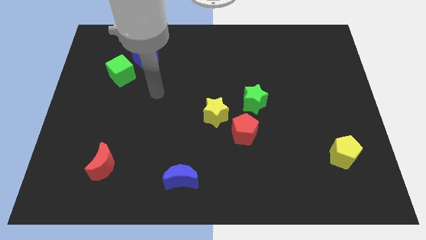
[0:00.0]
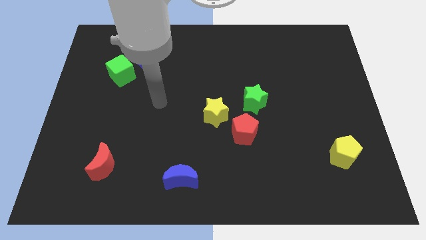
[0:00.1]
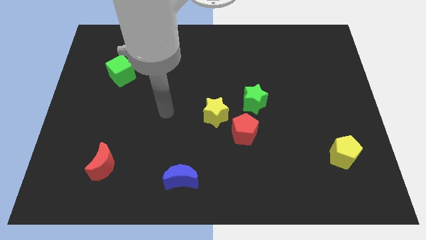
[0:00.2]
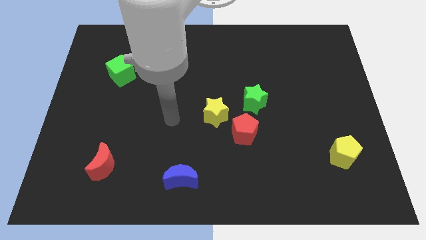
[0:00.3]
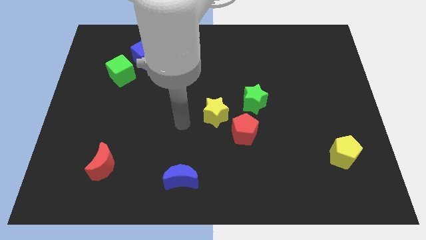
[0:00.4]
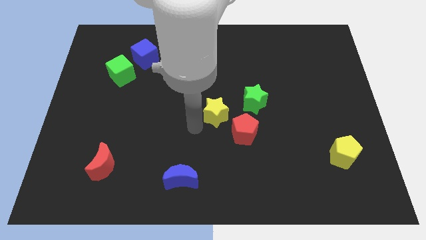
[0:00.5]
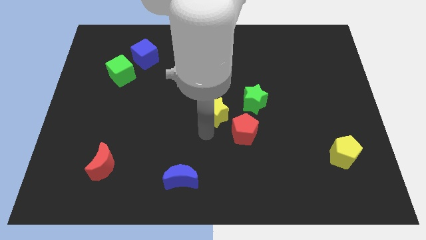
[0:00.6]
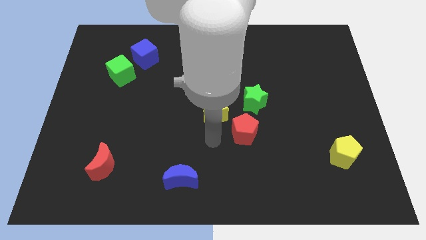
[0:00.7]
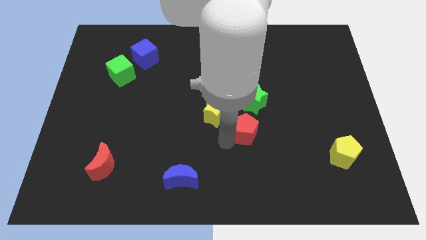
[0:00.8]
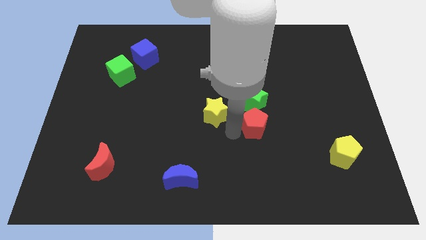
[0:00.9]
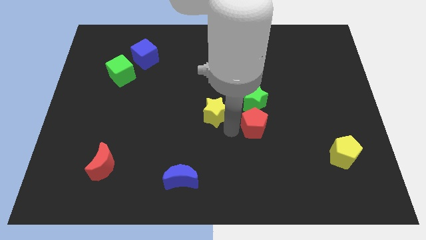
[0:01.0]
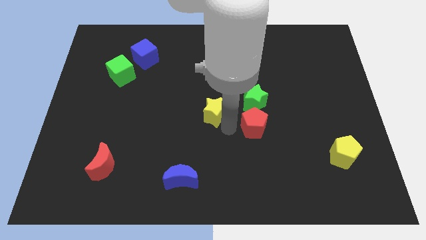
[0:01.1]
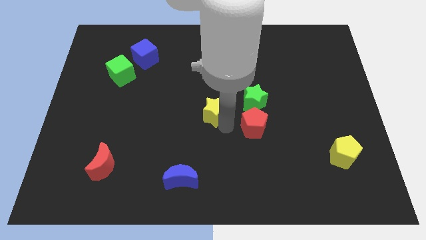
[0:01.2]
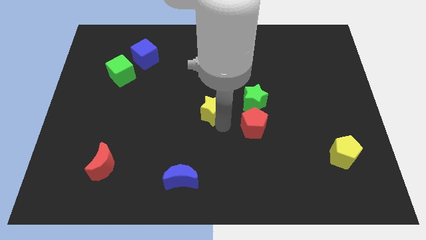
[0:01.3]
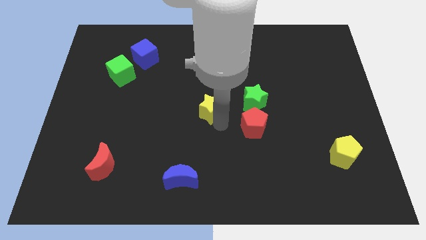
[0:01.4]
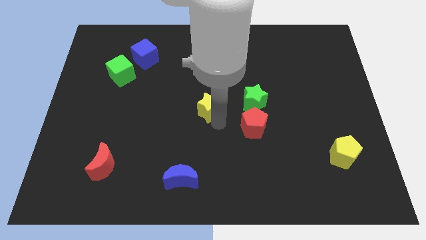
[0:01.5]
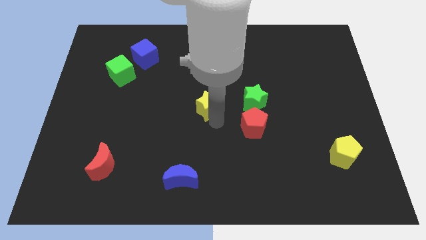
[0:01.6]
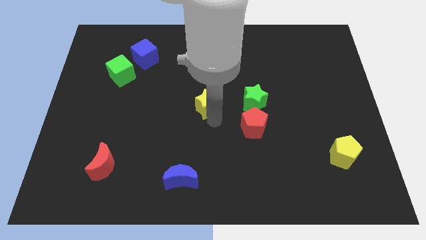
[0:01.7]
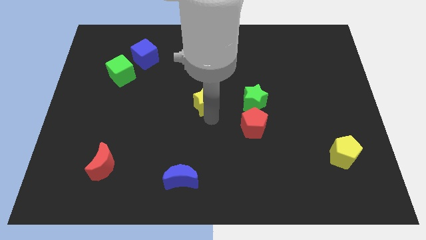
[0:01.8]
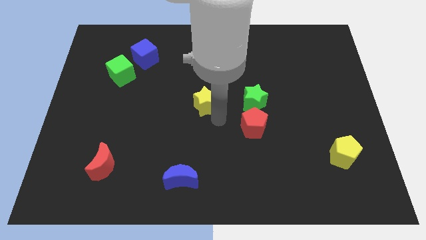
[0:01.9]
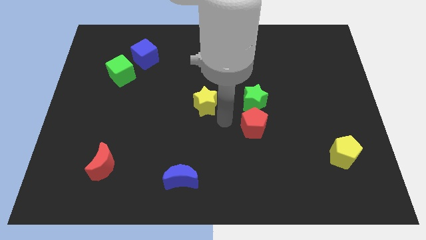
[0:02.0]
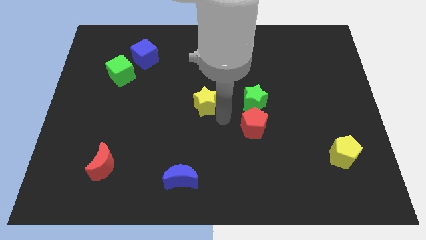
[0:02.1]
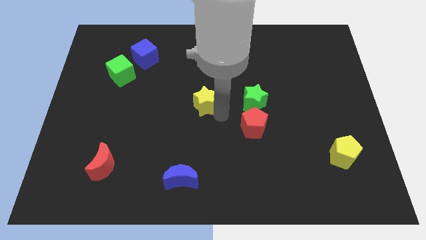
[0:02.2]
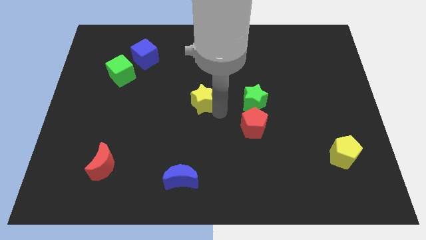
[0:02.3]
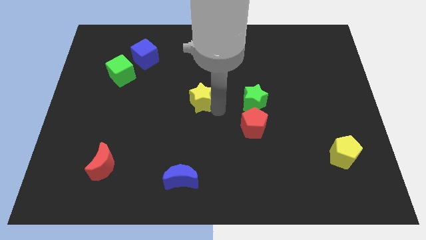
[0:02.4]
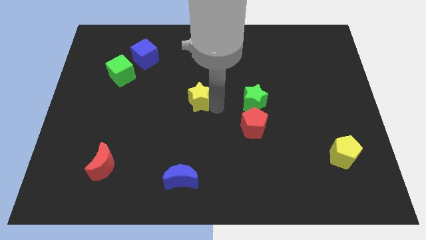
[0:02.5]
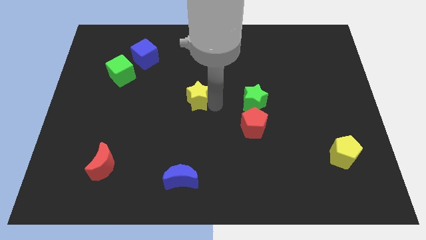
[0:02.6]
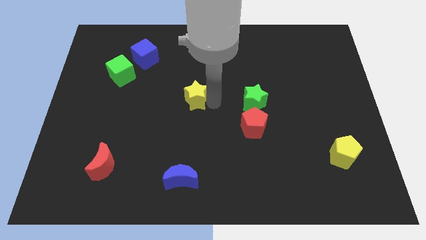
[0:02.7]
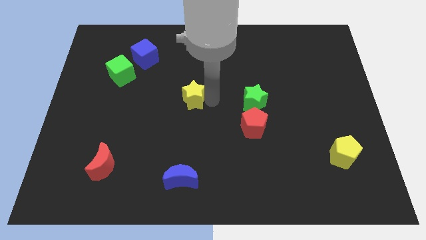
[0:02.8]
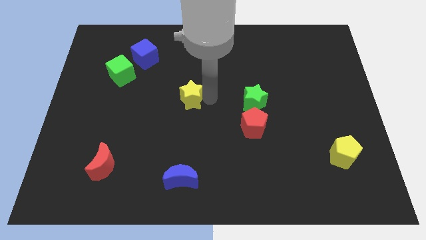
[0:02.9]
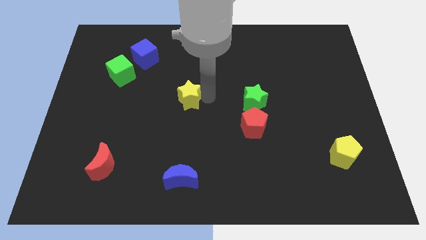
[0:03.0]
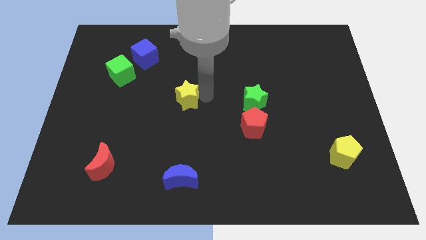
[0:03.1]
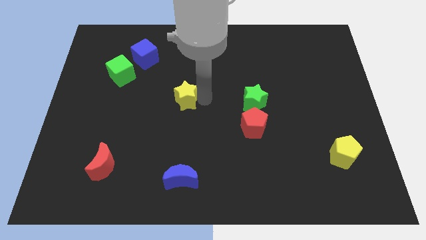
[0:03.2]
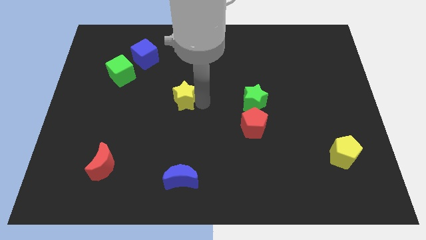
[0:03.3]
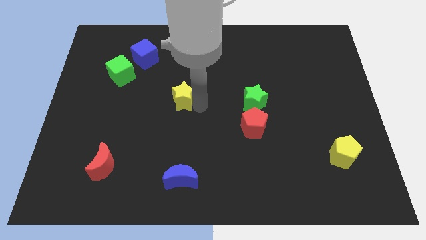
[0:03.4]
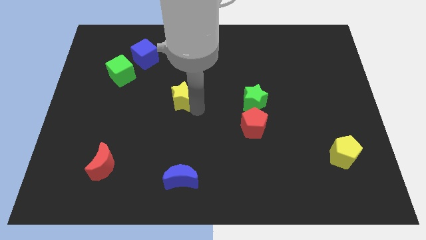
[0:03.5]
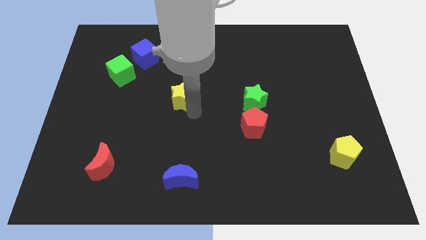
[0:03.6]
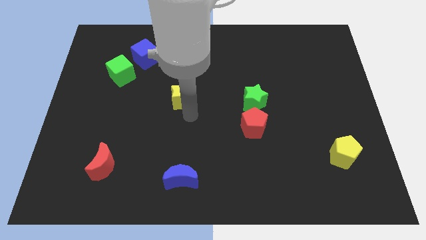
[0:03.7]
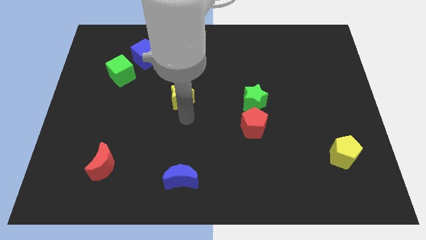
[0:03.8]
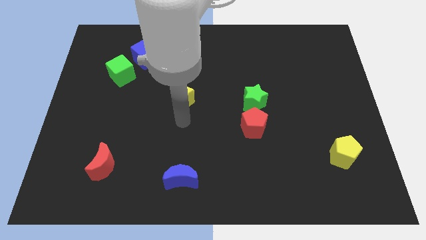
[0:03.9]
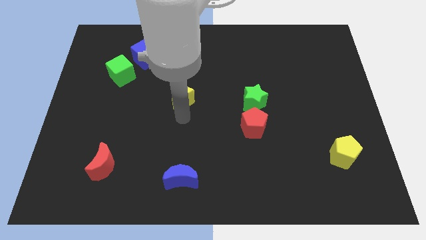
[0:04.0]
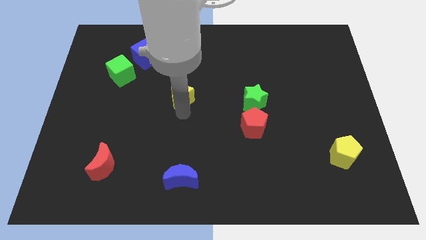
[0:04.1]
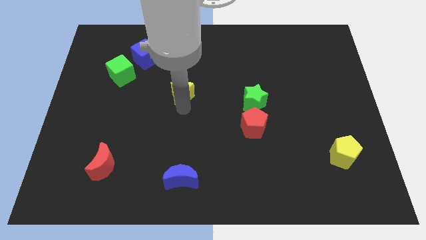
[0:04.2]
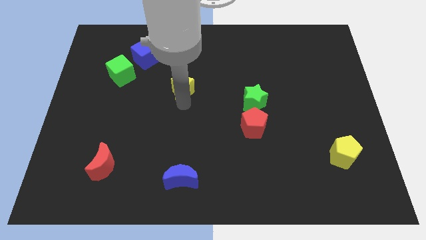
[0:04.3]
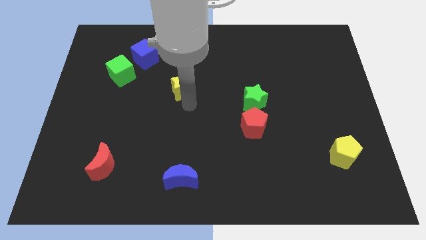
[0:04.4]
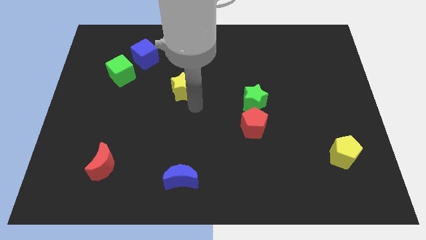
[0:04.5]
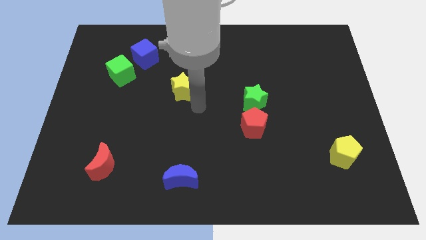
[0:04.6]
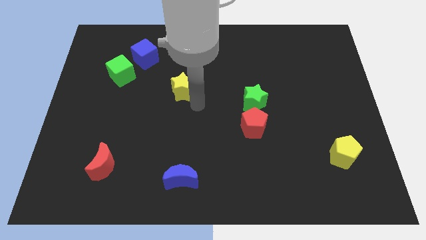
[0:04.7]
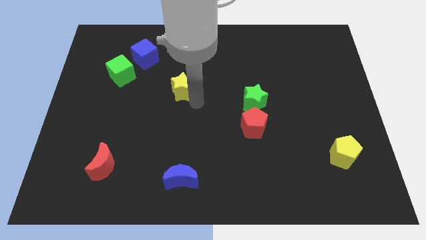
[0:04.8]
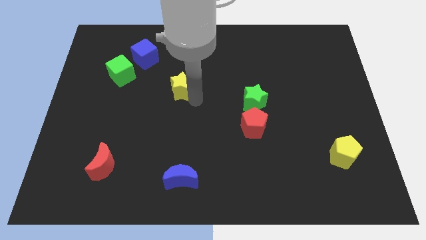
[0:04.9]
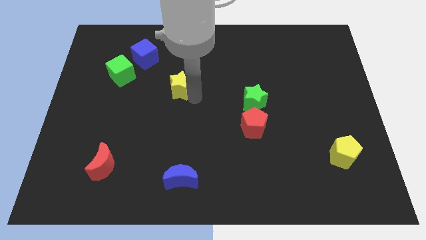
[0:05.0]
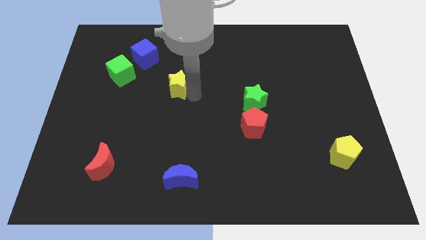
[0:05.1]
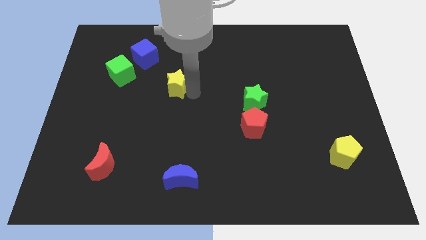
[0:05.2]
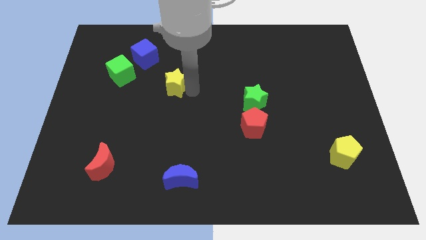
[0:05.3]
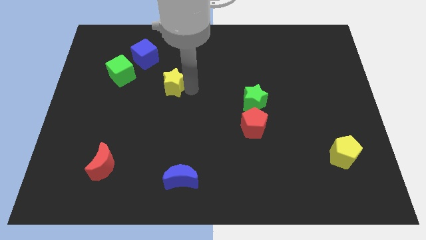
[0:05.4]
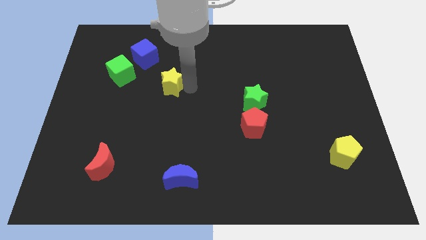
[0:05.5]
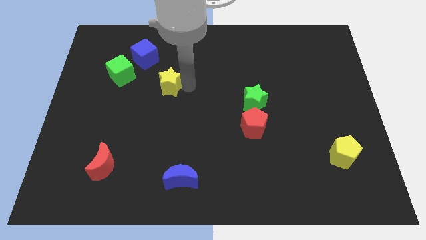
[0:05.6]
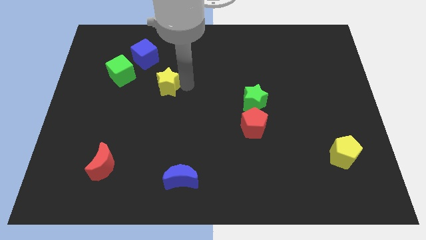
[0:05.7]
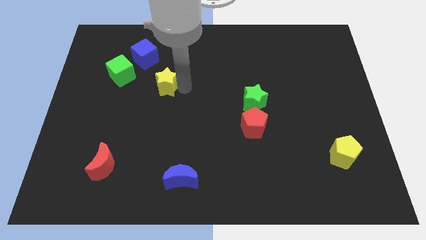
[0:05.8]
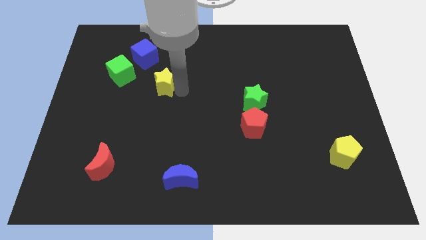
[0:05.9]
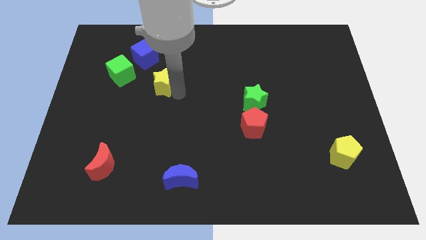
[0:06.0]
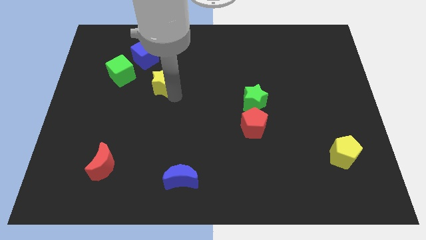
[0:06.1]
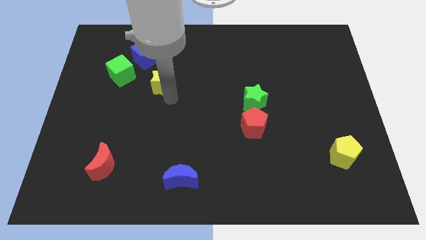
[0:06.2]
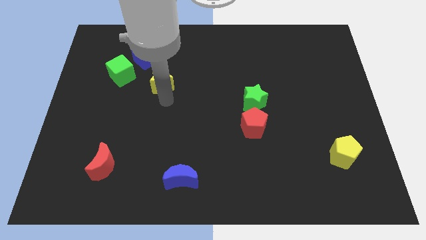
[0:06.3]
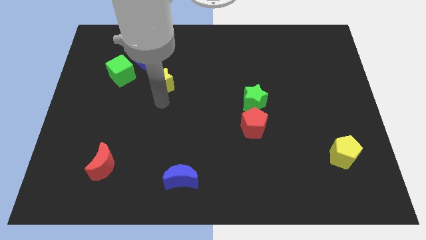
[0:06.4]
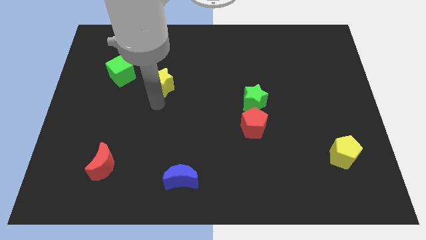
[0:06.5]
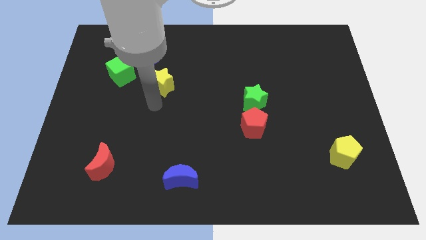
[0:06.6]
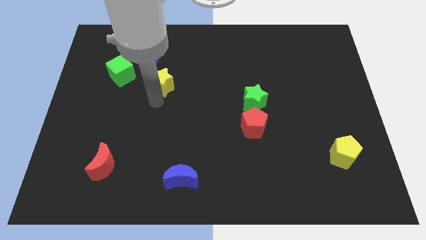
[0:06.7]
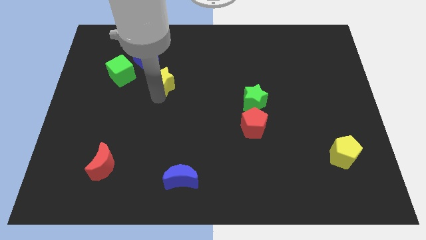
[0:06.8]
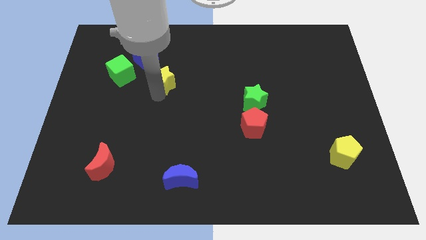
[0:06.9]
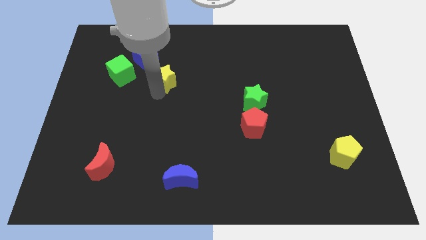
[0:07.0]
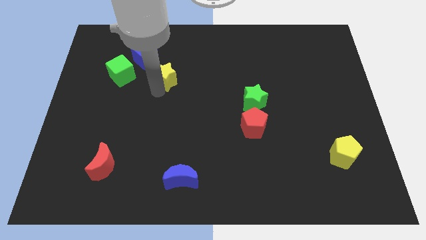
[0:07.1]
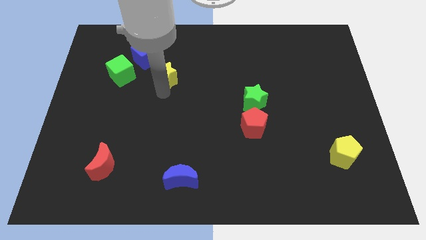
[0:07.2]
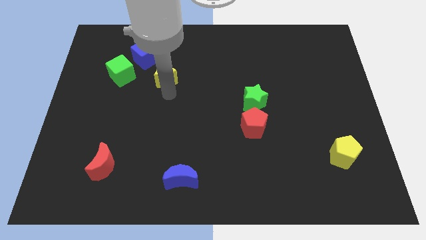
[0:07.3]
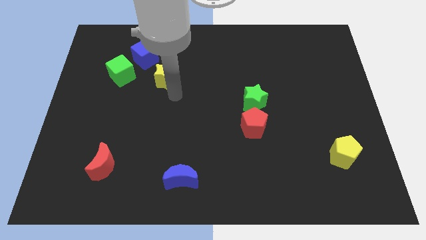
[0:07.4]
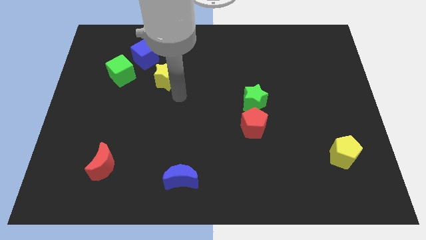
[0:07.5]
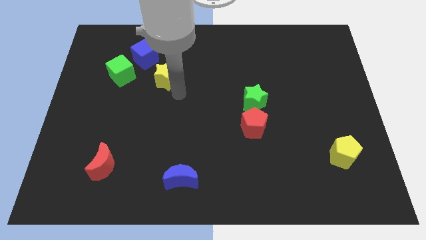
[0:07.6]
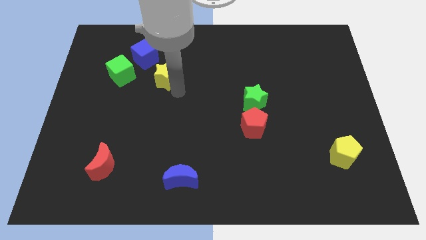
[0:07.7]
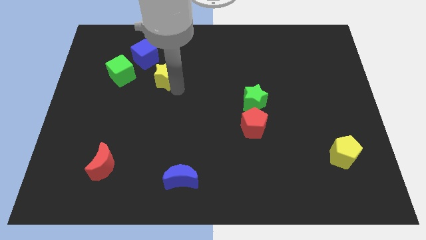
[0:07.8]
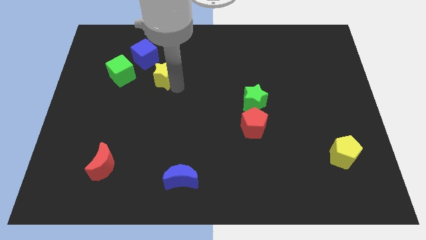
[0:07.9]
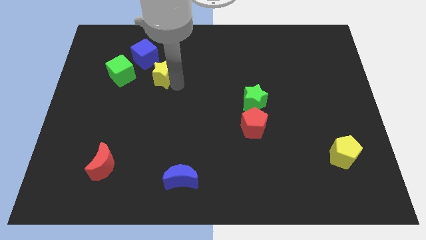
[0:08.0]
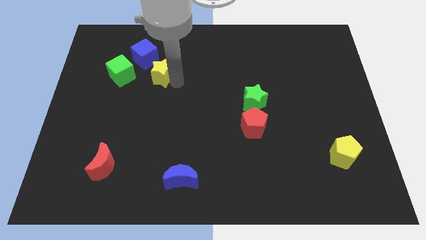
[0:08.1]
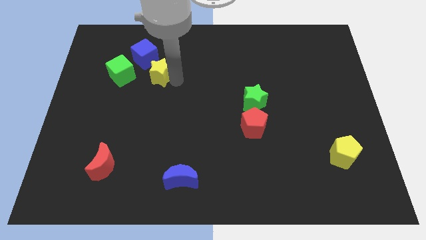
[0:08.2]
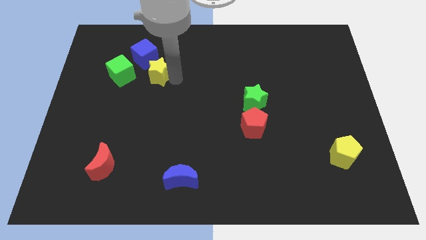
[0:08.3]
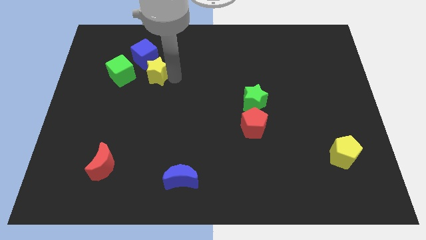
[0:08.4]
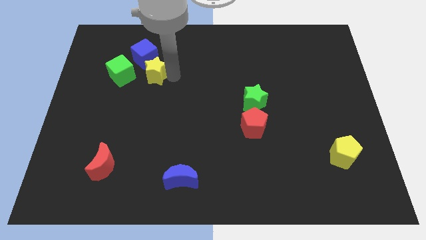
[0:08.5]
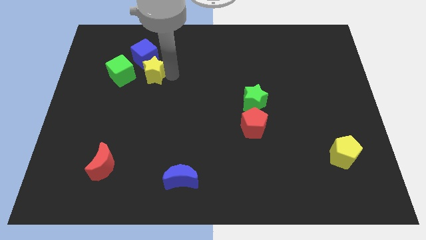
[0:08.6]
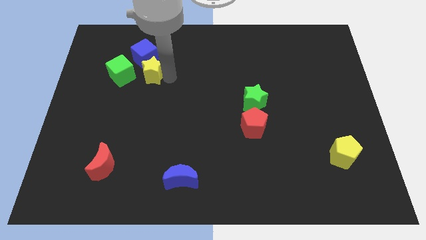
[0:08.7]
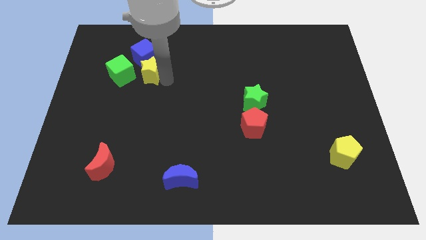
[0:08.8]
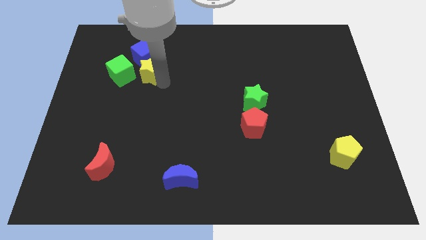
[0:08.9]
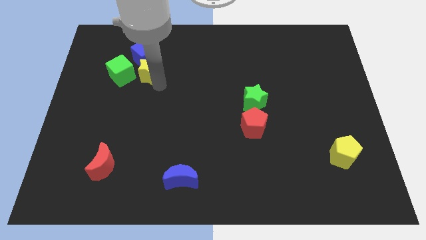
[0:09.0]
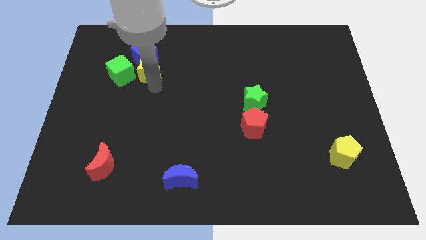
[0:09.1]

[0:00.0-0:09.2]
move the yellow star close to the blue cube
